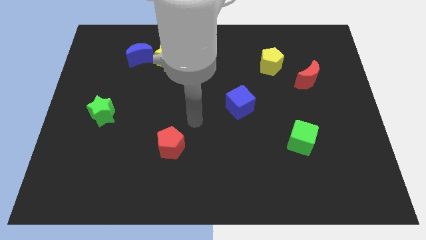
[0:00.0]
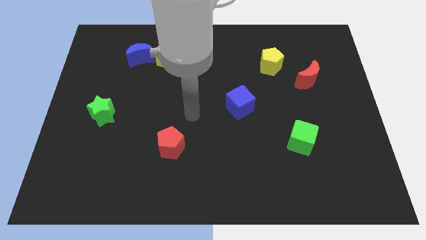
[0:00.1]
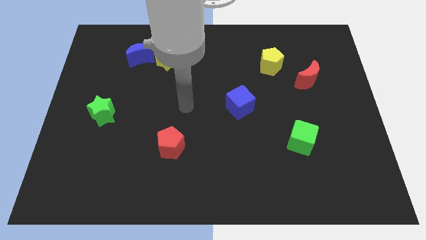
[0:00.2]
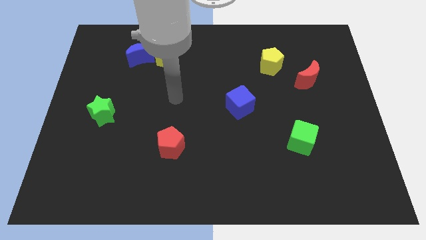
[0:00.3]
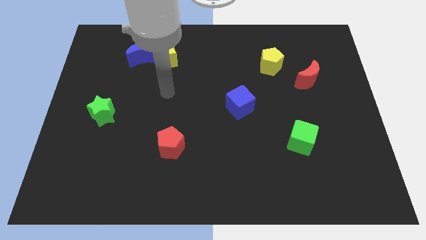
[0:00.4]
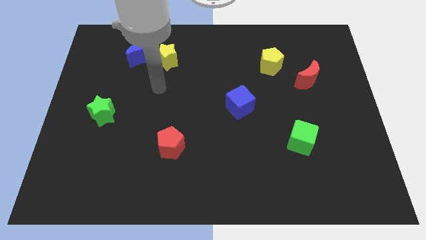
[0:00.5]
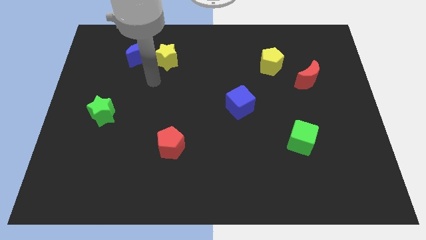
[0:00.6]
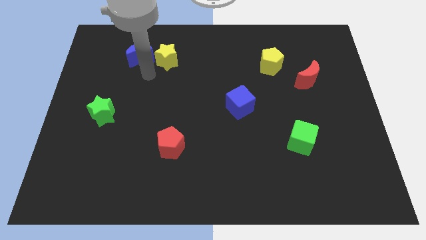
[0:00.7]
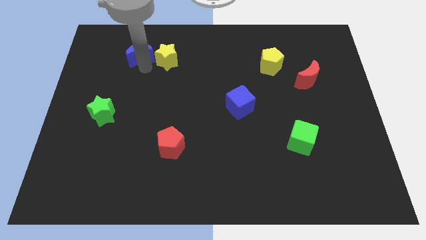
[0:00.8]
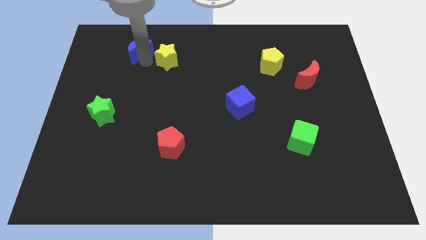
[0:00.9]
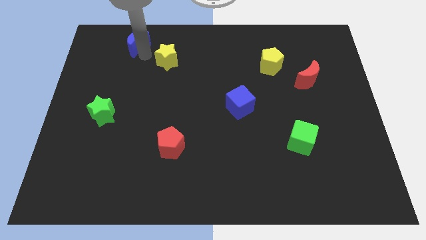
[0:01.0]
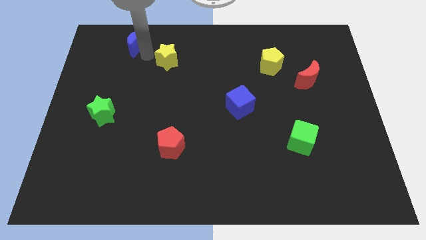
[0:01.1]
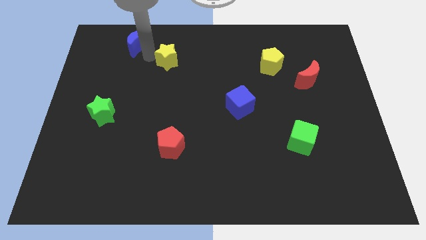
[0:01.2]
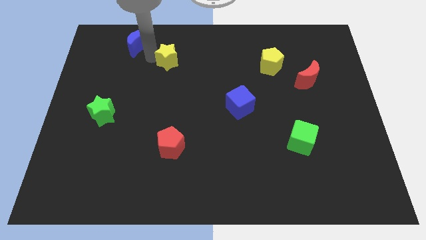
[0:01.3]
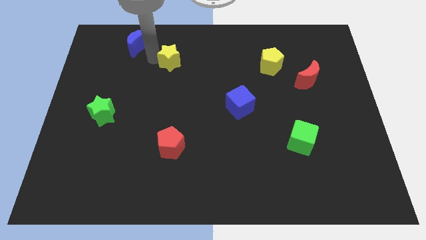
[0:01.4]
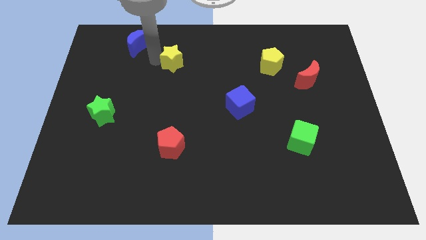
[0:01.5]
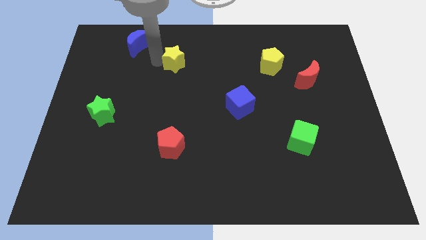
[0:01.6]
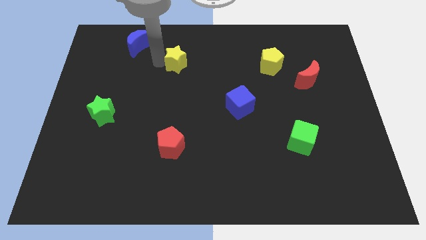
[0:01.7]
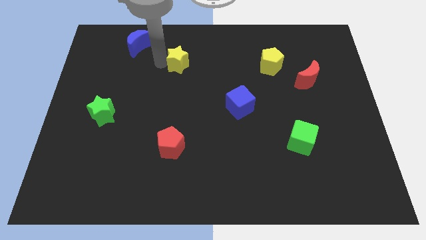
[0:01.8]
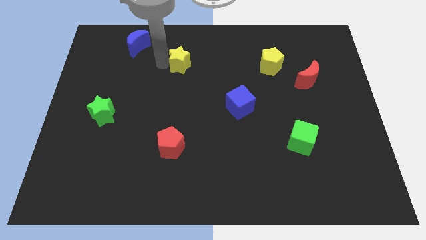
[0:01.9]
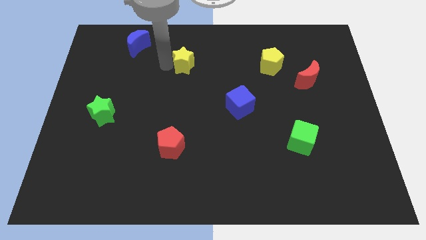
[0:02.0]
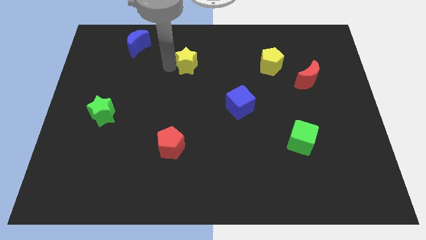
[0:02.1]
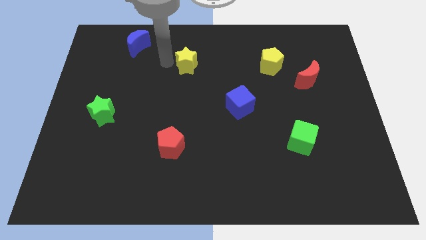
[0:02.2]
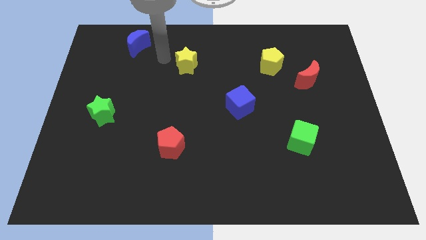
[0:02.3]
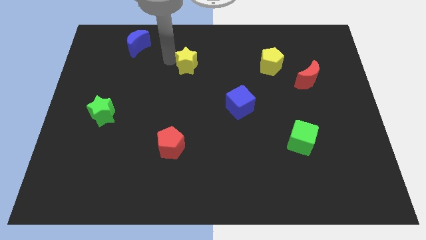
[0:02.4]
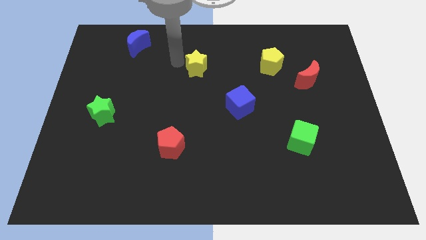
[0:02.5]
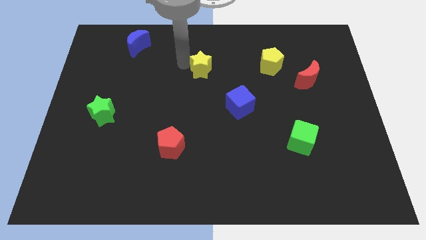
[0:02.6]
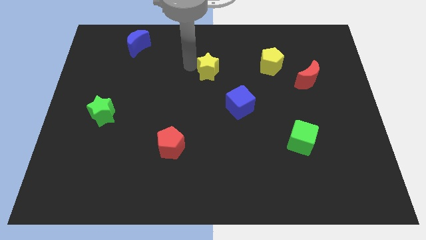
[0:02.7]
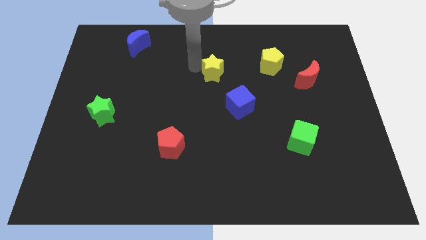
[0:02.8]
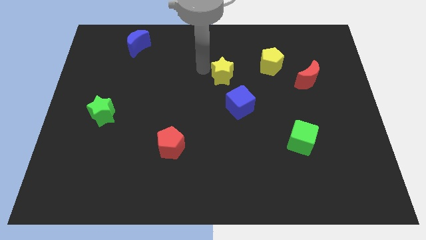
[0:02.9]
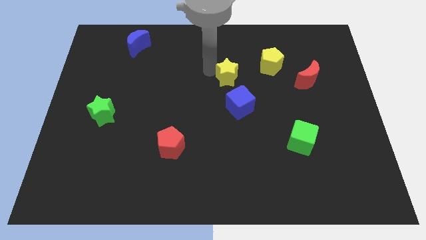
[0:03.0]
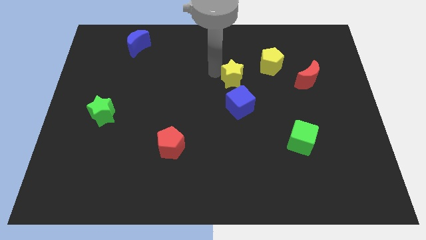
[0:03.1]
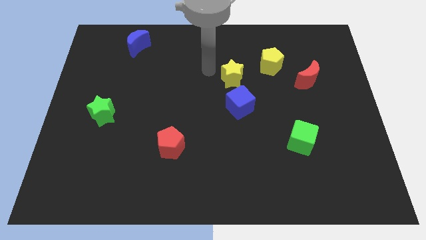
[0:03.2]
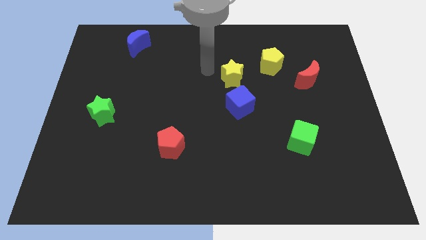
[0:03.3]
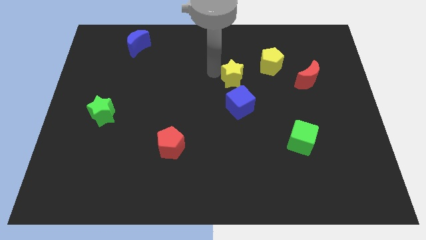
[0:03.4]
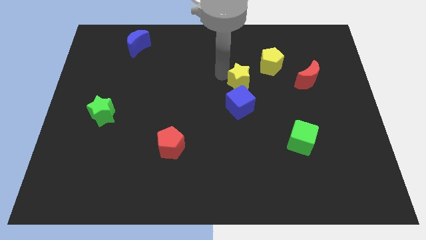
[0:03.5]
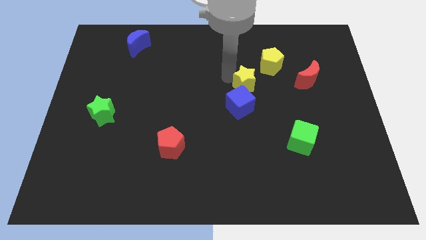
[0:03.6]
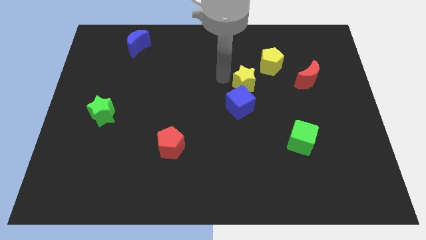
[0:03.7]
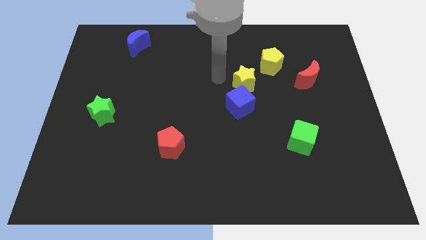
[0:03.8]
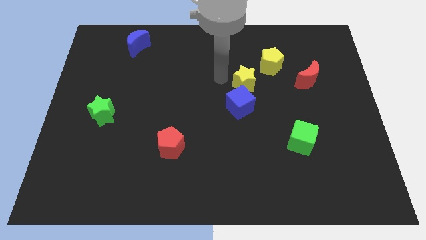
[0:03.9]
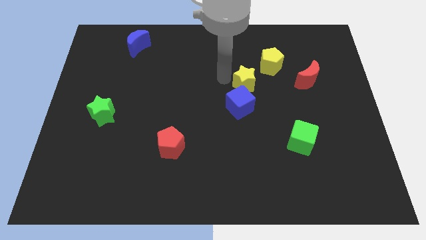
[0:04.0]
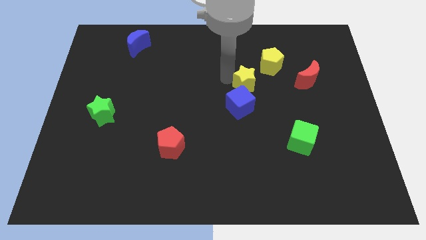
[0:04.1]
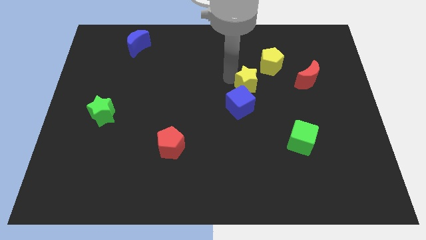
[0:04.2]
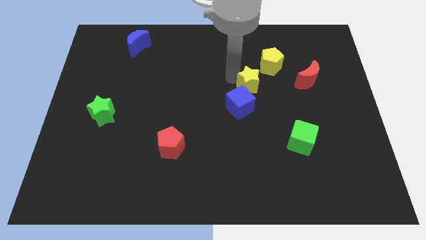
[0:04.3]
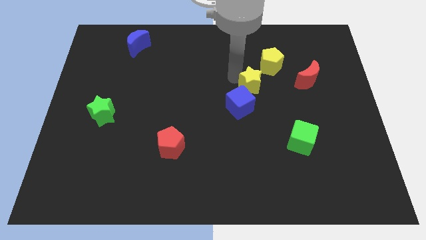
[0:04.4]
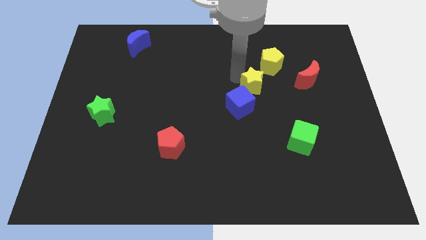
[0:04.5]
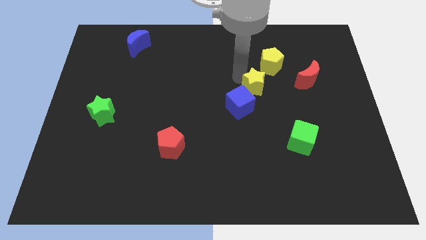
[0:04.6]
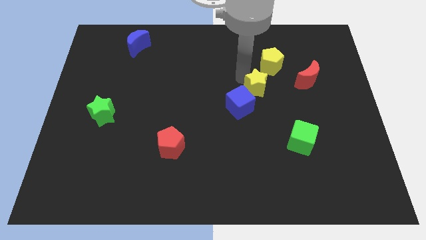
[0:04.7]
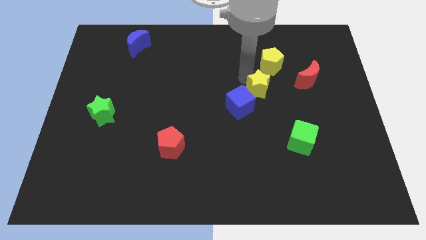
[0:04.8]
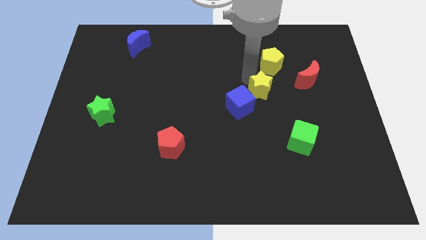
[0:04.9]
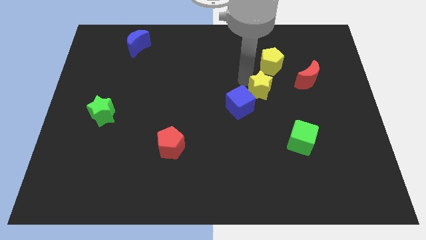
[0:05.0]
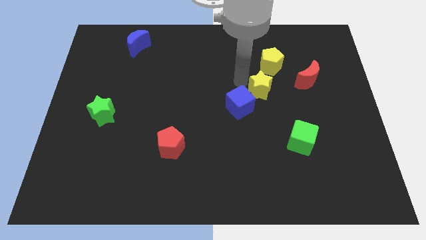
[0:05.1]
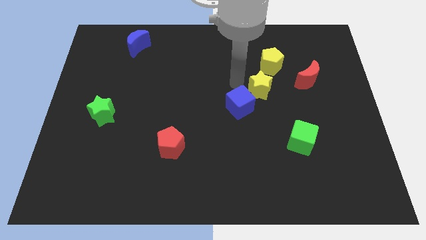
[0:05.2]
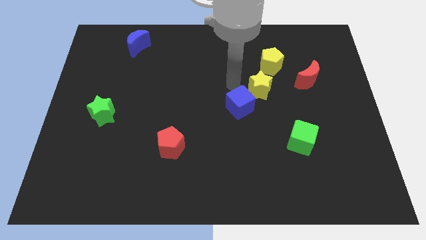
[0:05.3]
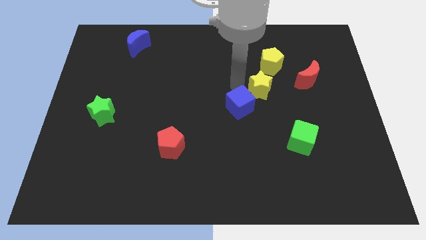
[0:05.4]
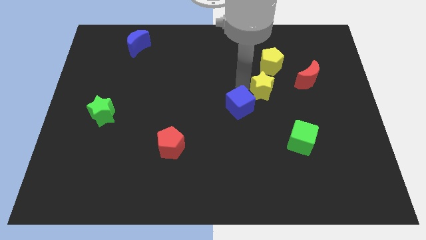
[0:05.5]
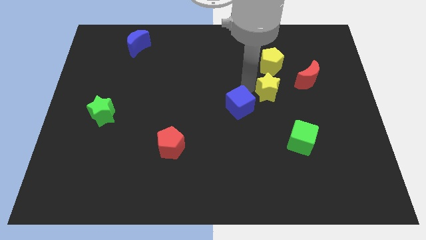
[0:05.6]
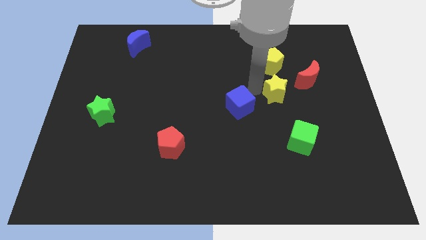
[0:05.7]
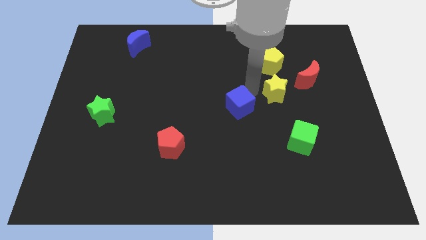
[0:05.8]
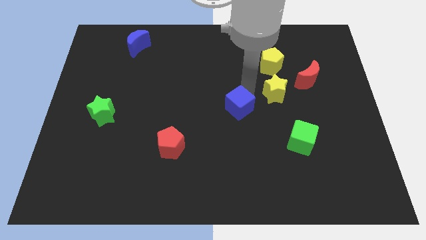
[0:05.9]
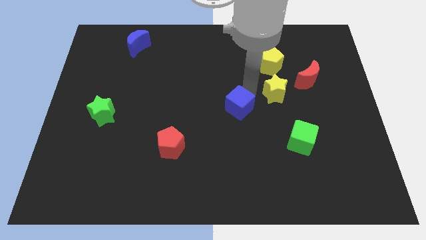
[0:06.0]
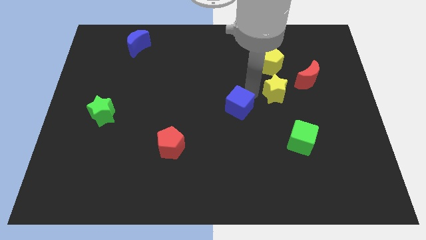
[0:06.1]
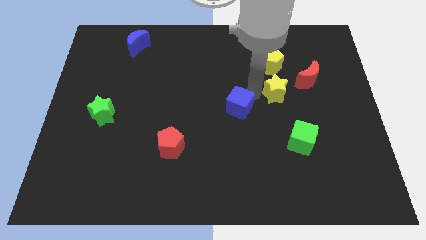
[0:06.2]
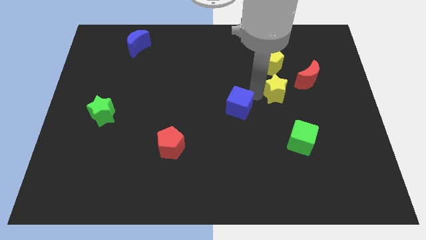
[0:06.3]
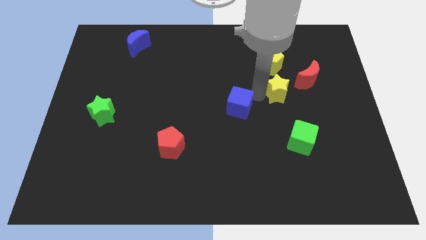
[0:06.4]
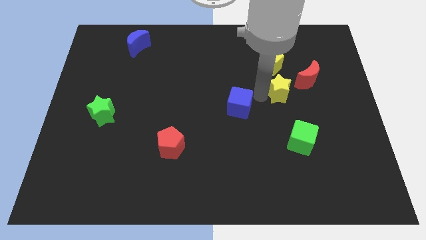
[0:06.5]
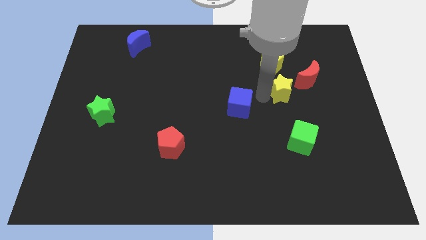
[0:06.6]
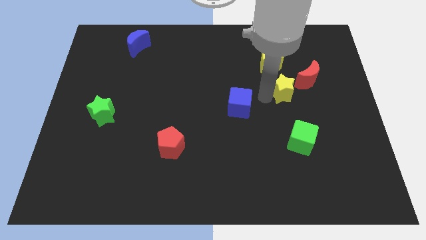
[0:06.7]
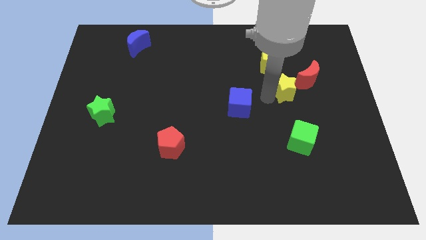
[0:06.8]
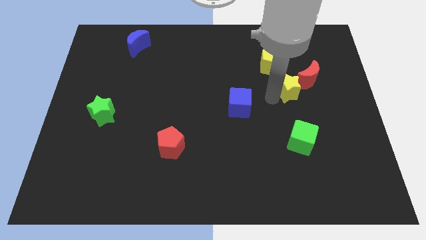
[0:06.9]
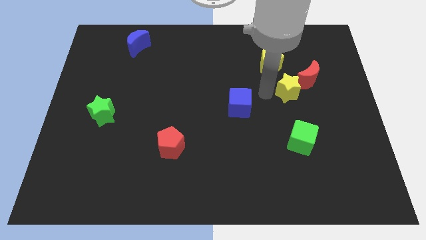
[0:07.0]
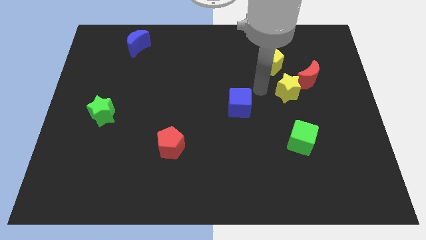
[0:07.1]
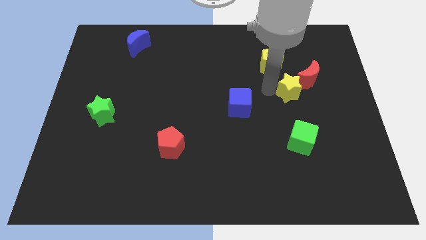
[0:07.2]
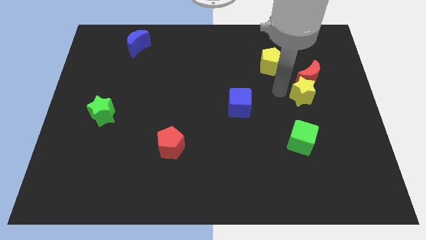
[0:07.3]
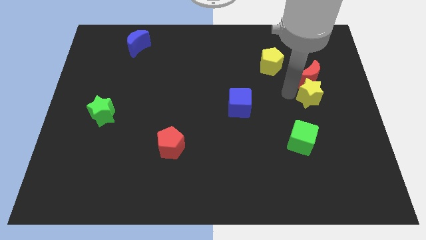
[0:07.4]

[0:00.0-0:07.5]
put the yellow star diagonally down and to the right of the red moon
